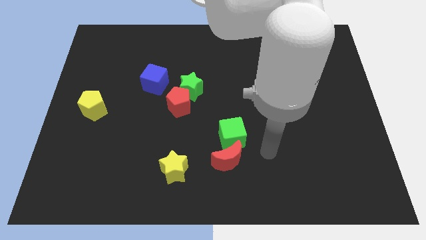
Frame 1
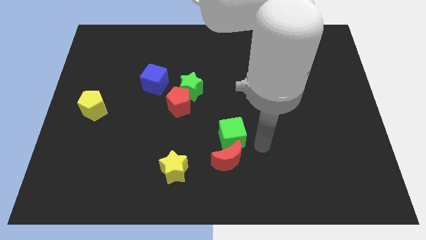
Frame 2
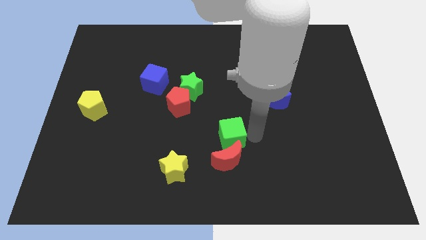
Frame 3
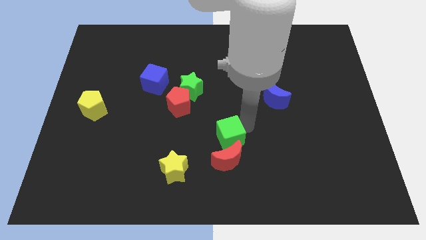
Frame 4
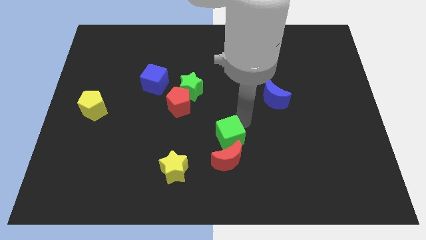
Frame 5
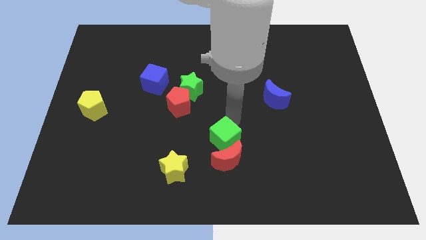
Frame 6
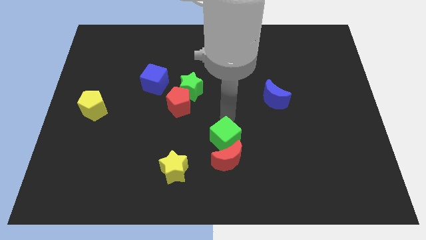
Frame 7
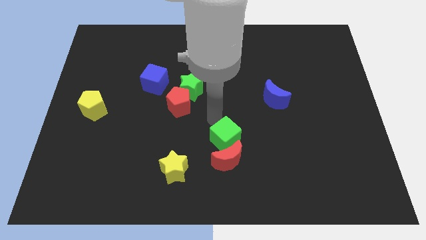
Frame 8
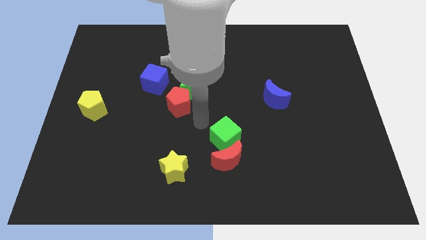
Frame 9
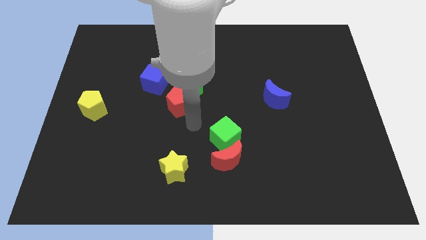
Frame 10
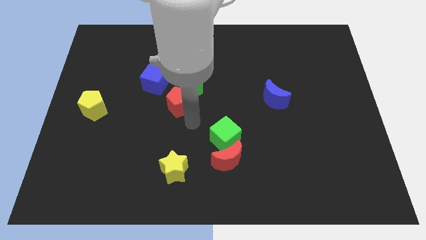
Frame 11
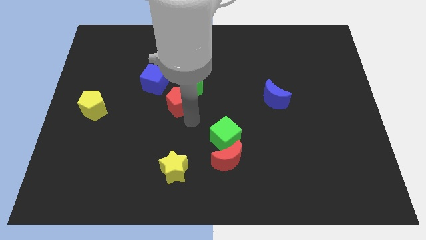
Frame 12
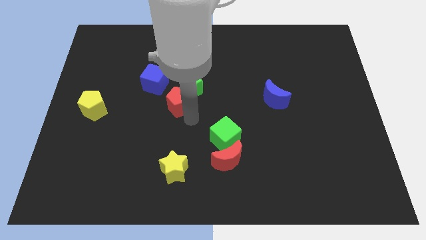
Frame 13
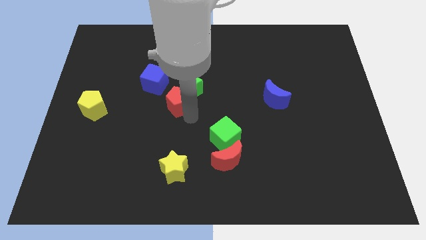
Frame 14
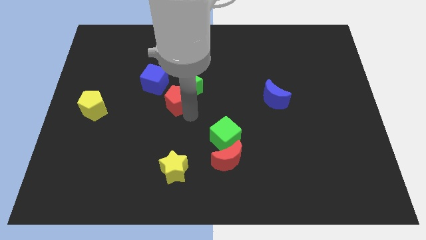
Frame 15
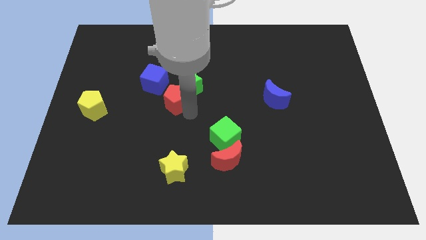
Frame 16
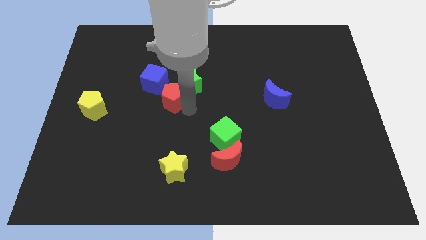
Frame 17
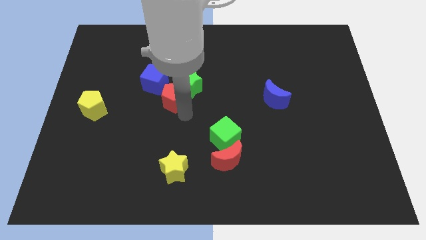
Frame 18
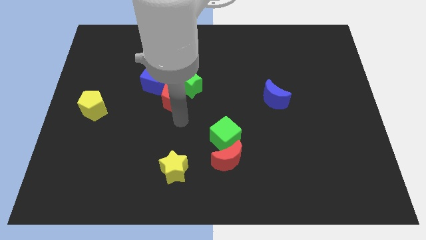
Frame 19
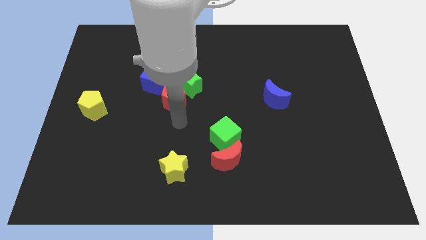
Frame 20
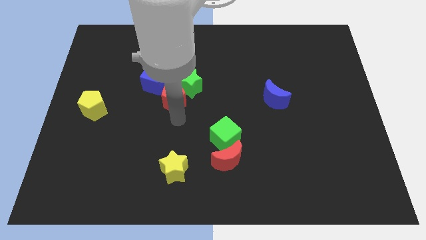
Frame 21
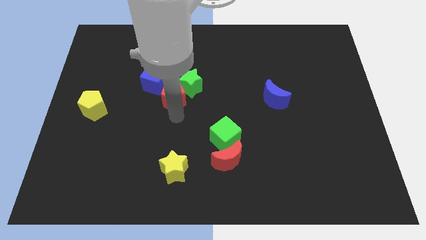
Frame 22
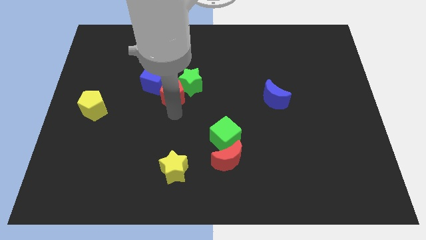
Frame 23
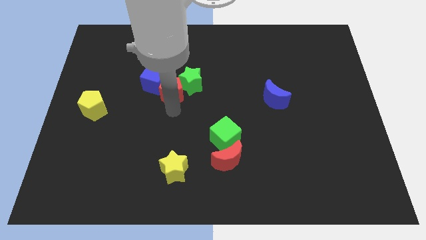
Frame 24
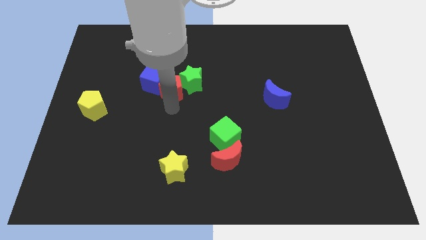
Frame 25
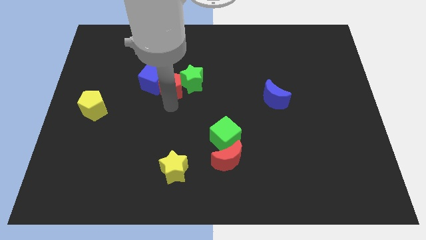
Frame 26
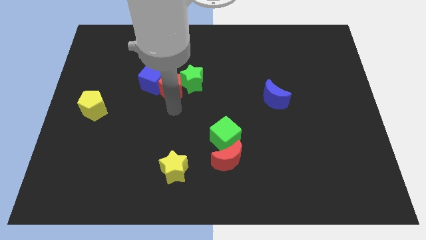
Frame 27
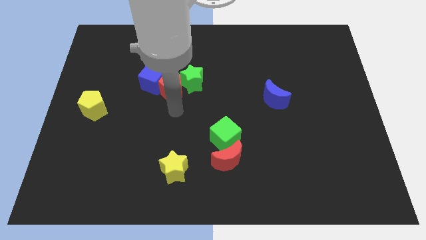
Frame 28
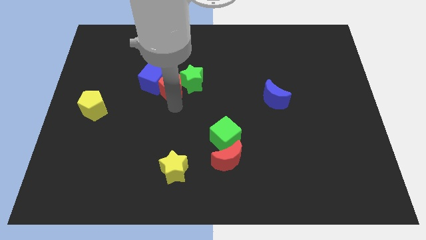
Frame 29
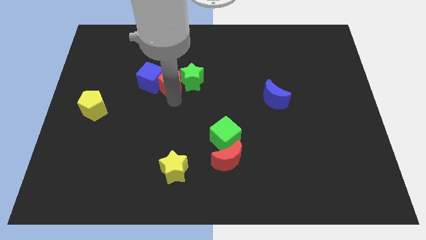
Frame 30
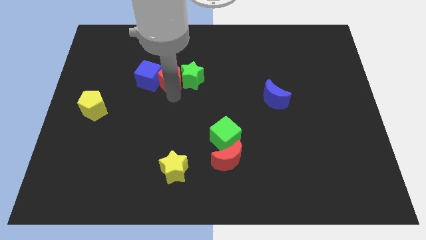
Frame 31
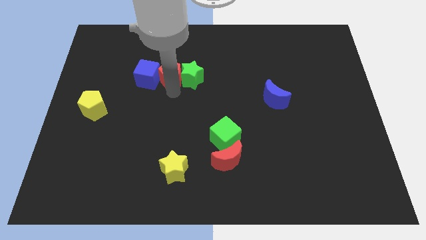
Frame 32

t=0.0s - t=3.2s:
move the red pentagon up and then to the left somewhat

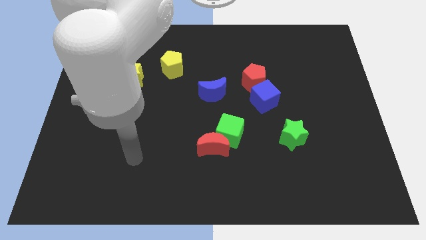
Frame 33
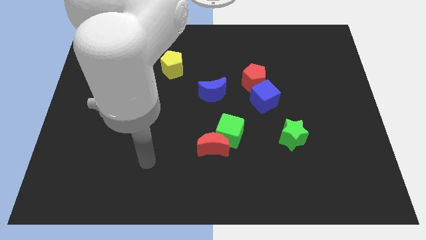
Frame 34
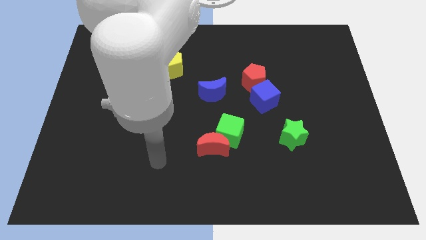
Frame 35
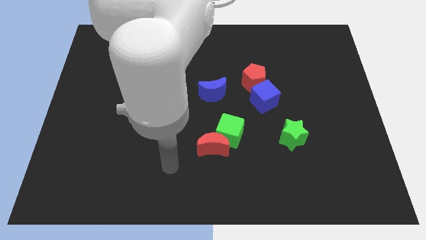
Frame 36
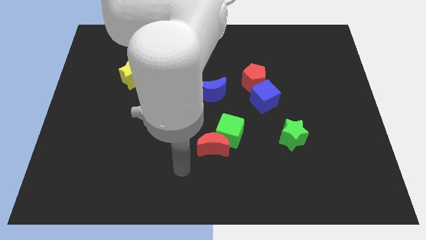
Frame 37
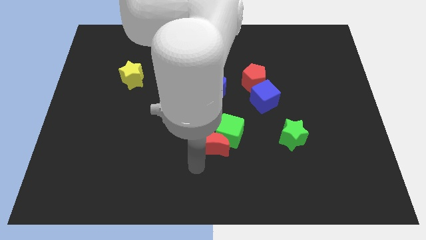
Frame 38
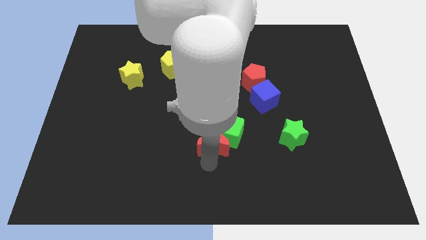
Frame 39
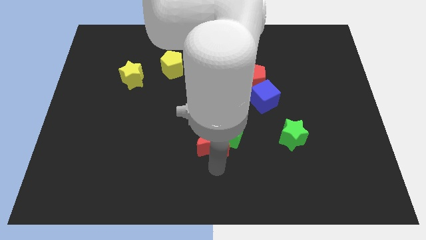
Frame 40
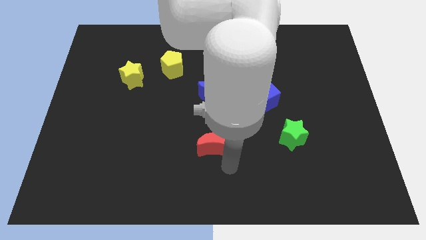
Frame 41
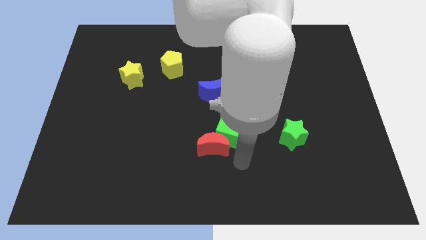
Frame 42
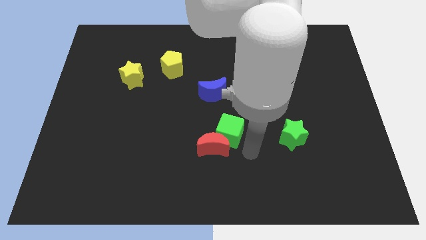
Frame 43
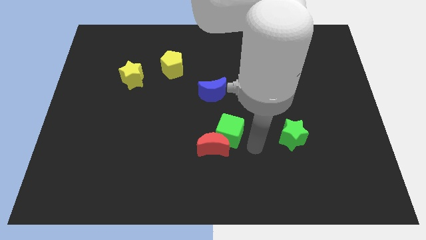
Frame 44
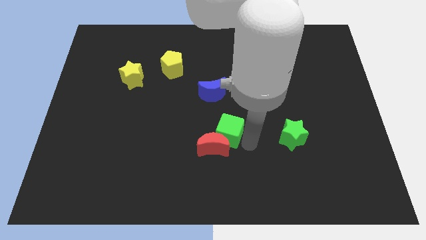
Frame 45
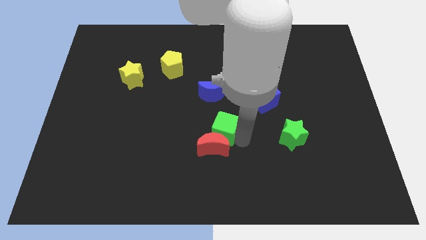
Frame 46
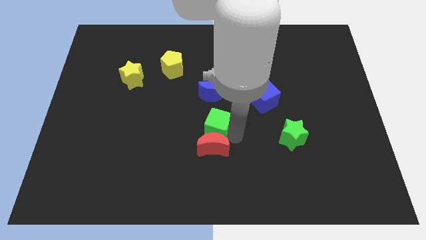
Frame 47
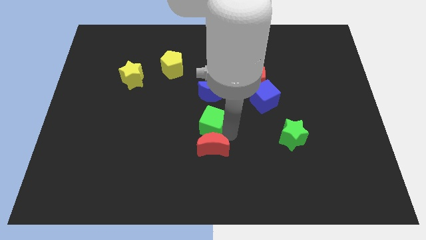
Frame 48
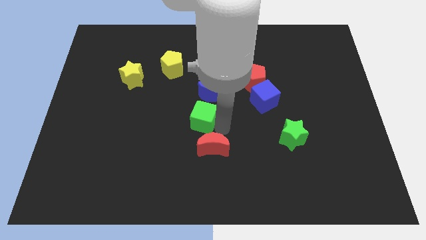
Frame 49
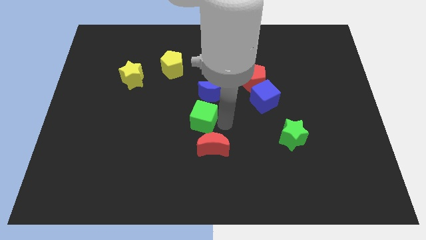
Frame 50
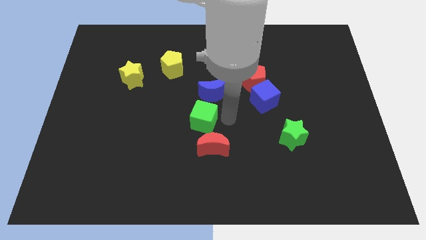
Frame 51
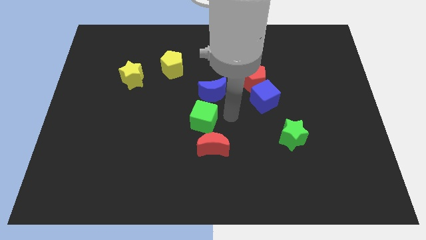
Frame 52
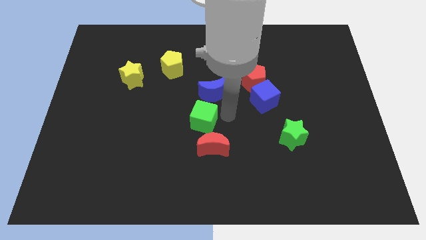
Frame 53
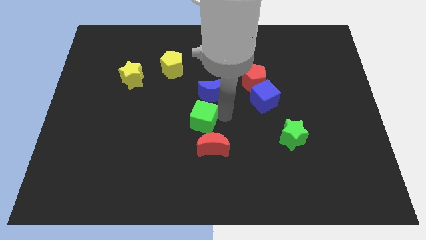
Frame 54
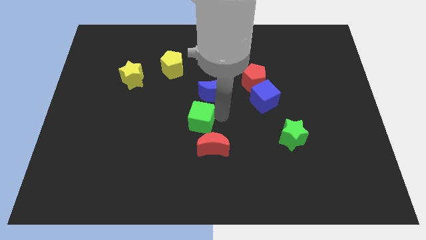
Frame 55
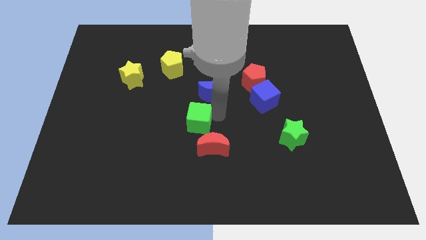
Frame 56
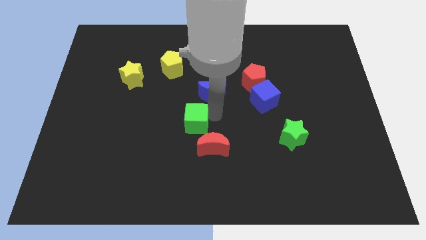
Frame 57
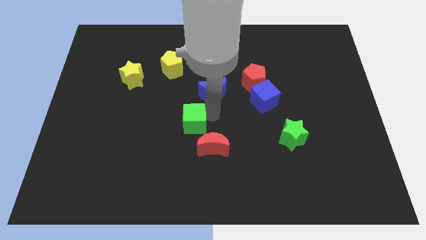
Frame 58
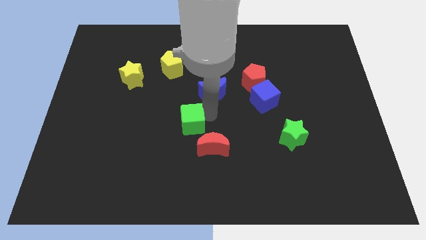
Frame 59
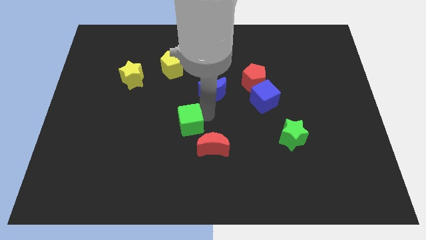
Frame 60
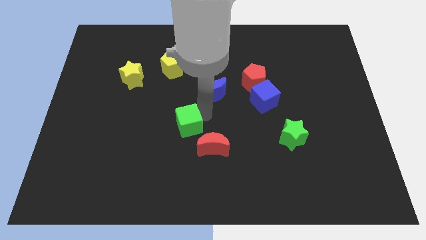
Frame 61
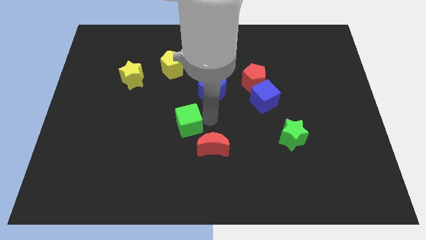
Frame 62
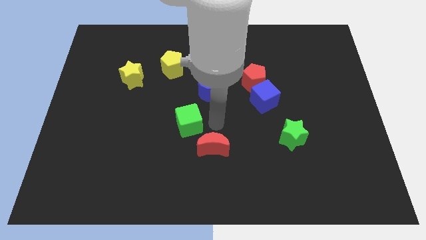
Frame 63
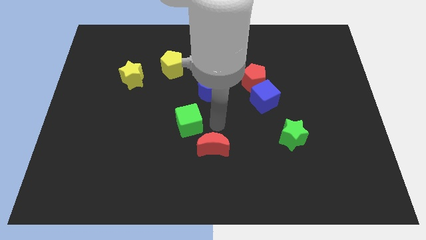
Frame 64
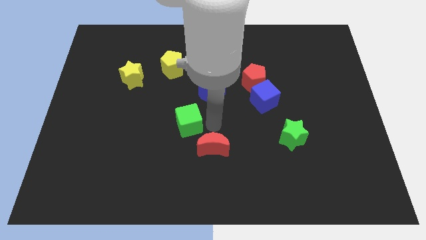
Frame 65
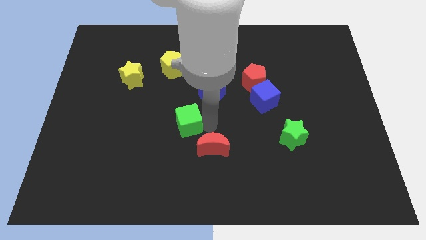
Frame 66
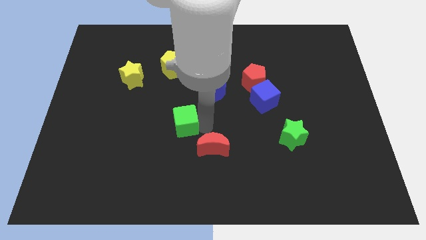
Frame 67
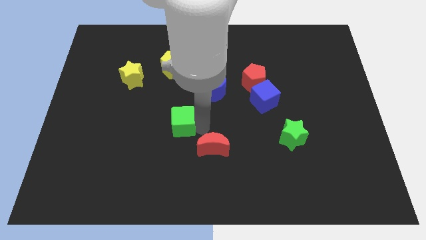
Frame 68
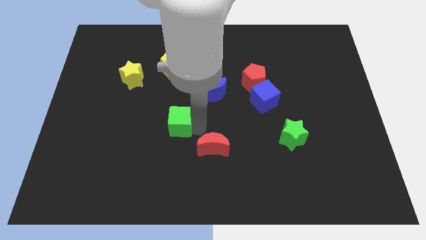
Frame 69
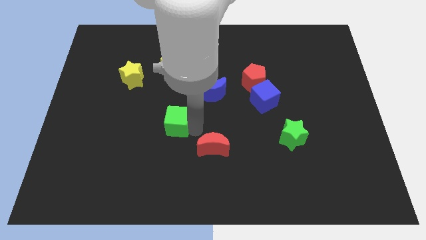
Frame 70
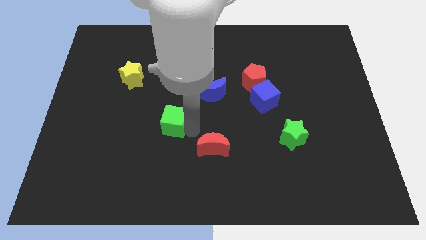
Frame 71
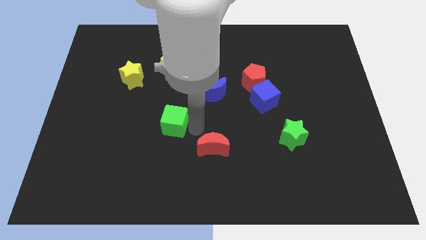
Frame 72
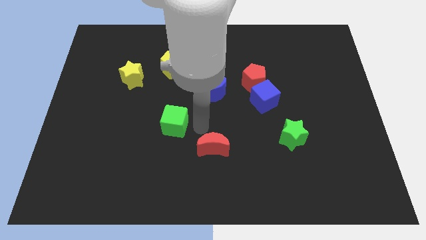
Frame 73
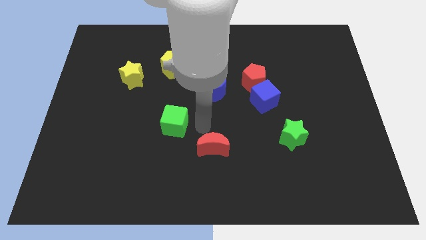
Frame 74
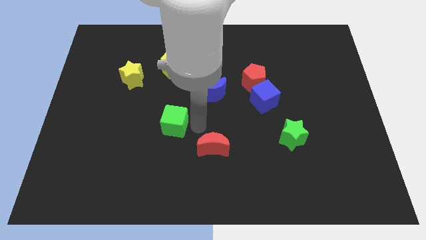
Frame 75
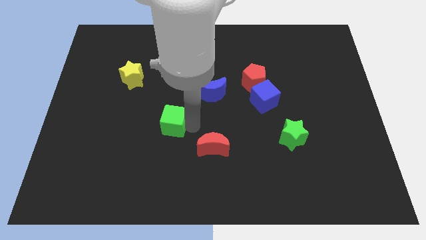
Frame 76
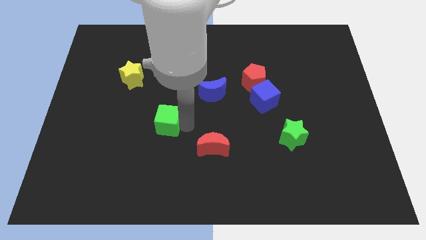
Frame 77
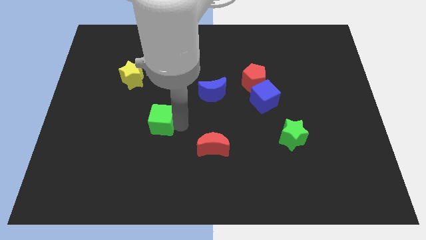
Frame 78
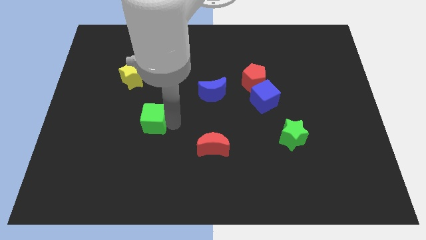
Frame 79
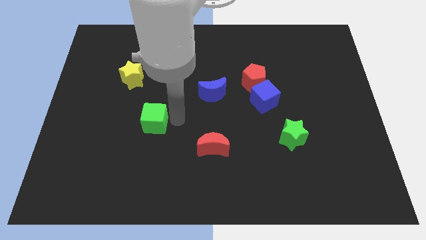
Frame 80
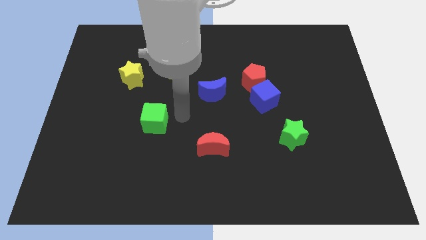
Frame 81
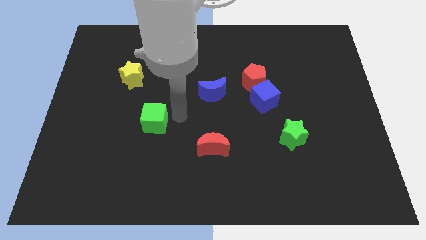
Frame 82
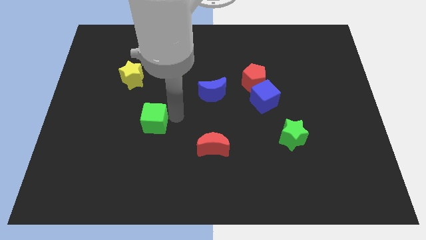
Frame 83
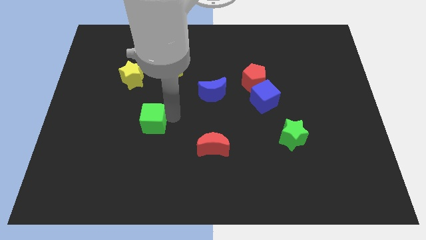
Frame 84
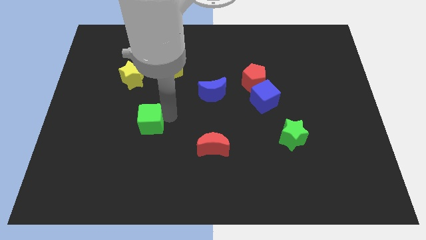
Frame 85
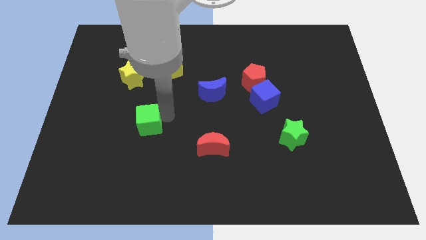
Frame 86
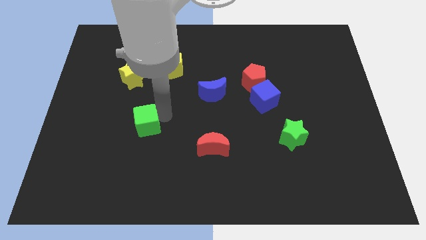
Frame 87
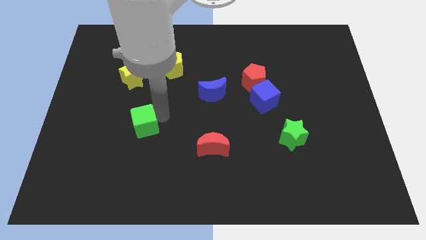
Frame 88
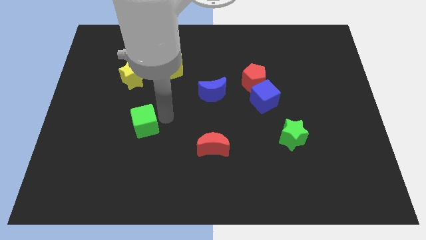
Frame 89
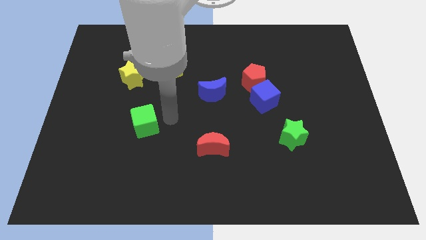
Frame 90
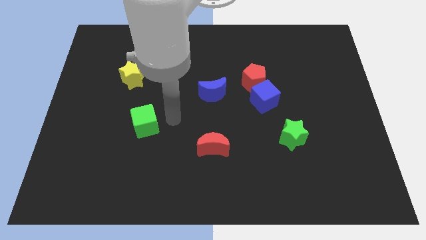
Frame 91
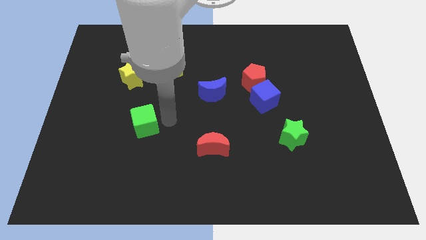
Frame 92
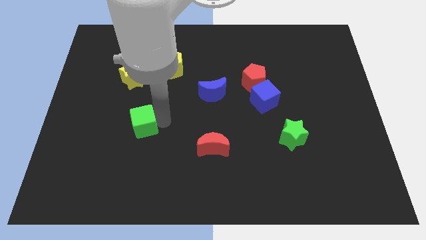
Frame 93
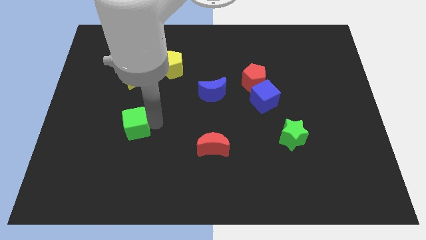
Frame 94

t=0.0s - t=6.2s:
push the green cube to the left
